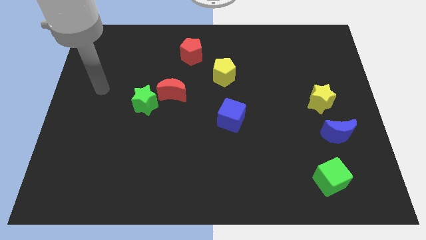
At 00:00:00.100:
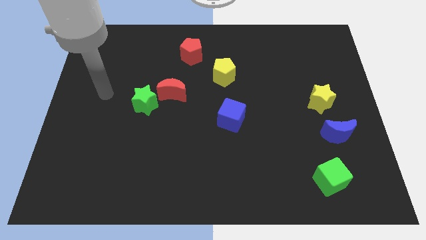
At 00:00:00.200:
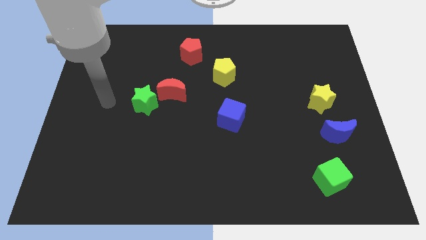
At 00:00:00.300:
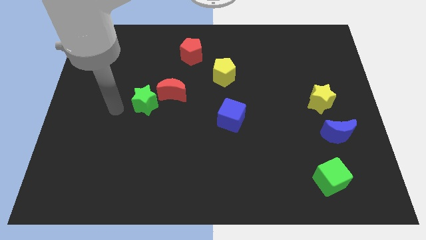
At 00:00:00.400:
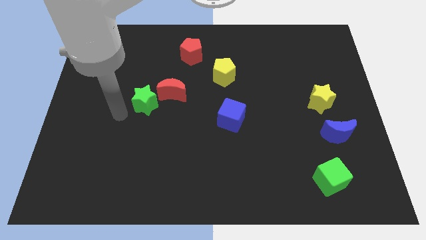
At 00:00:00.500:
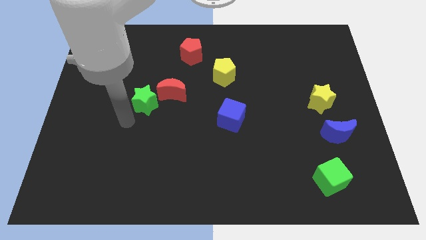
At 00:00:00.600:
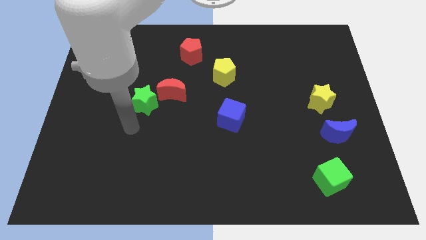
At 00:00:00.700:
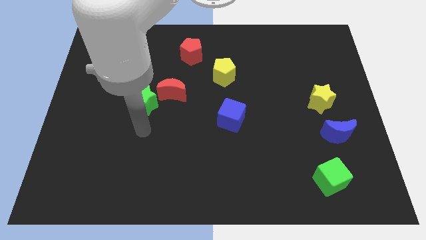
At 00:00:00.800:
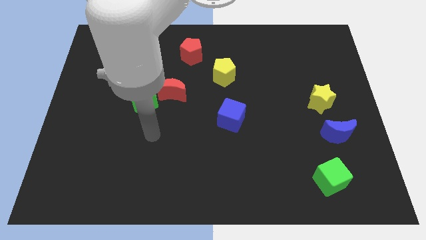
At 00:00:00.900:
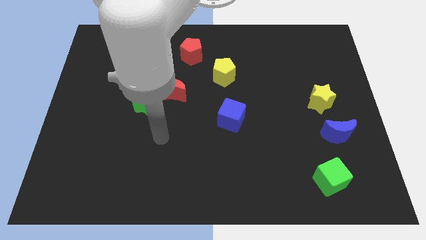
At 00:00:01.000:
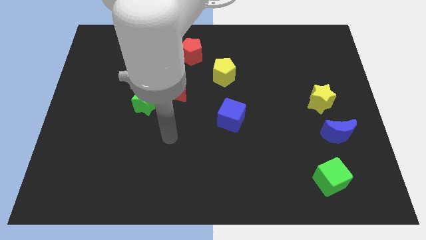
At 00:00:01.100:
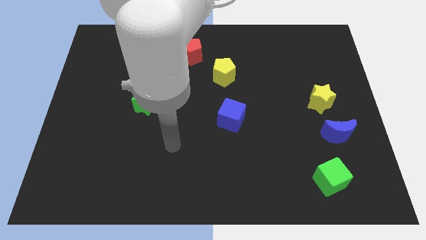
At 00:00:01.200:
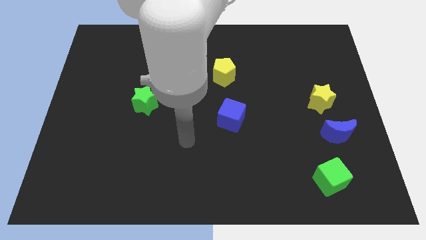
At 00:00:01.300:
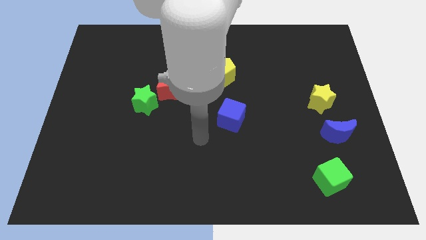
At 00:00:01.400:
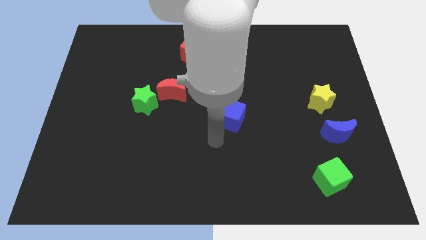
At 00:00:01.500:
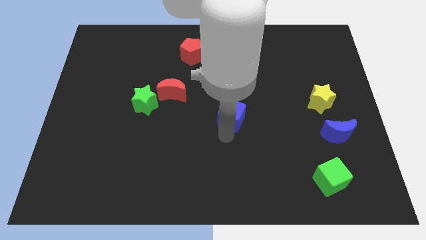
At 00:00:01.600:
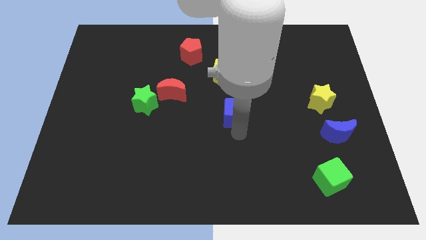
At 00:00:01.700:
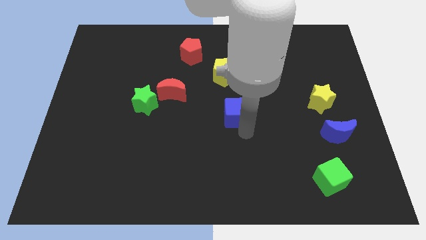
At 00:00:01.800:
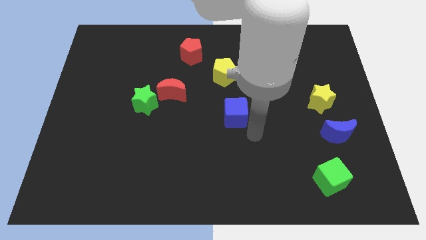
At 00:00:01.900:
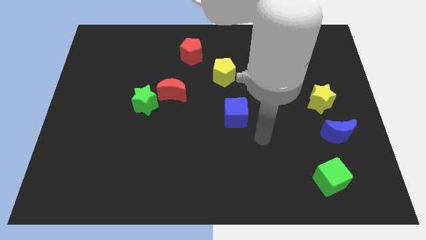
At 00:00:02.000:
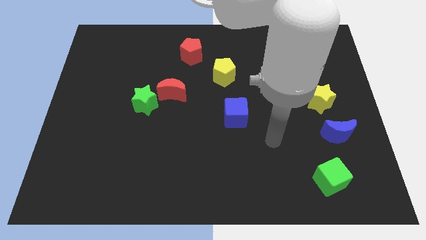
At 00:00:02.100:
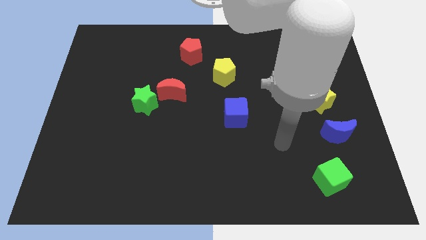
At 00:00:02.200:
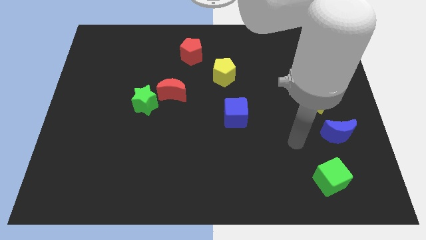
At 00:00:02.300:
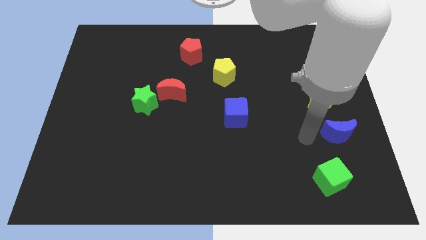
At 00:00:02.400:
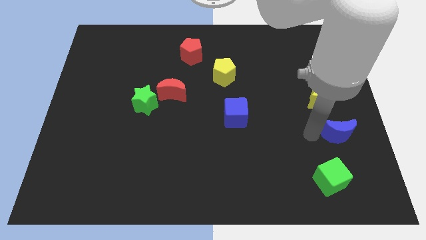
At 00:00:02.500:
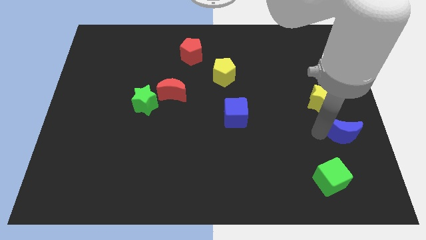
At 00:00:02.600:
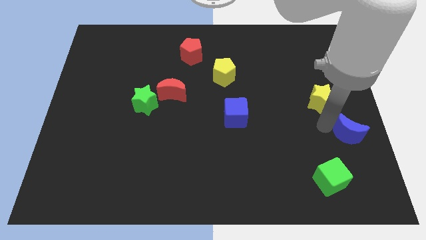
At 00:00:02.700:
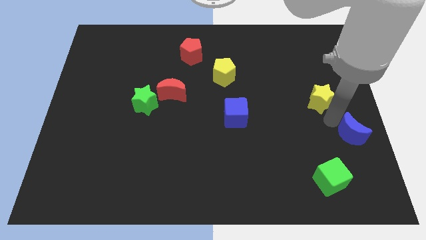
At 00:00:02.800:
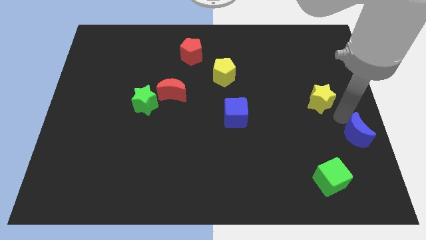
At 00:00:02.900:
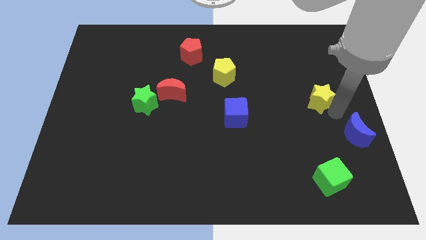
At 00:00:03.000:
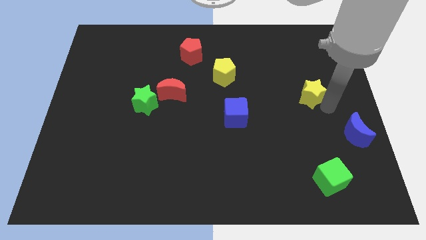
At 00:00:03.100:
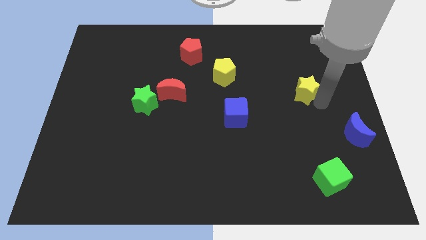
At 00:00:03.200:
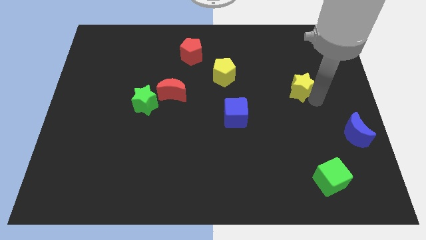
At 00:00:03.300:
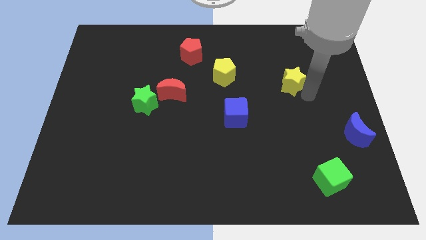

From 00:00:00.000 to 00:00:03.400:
slide the yellow star up and then to the left slightly

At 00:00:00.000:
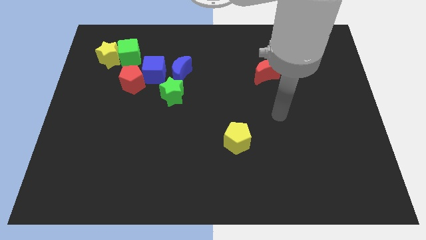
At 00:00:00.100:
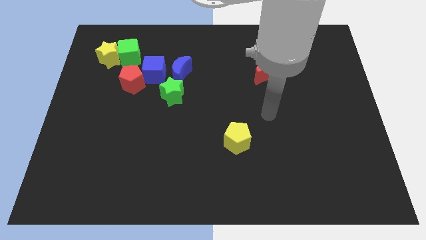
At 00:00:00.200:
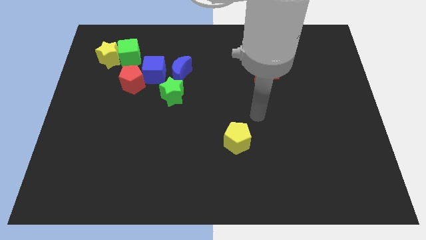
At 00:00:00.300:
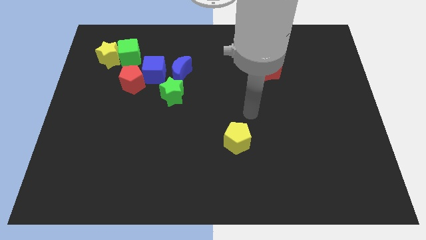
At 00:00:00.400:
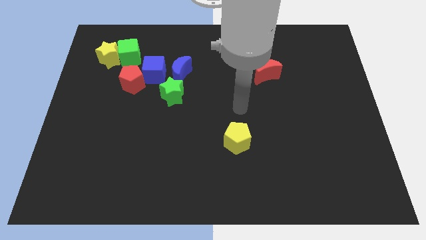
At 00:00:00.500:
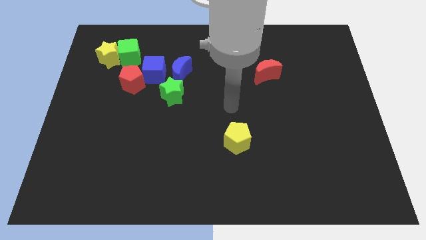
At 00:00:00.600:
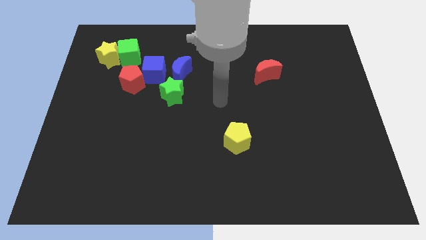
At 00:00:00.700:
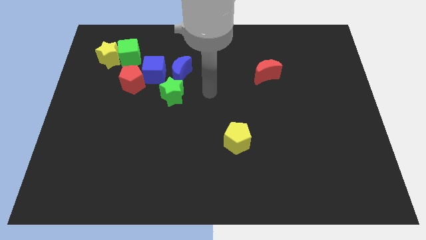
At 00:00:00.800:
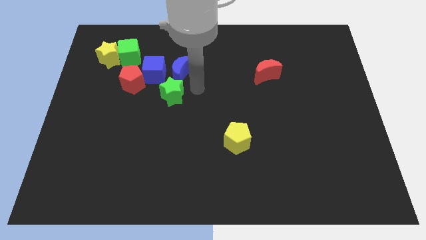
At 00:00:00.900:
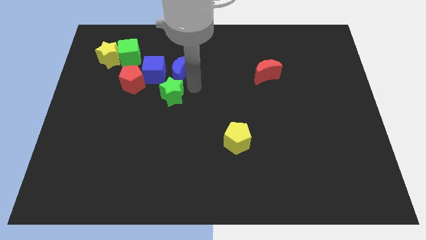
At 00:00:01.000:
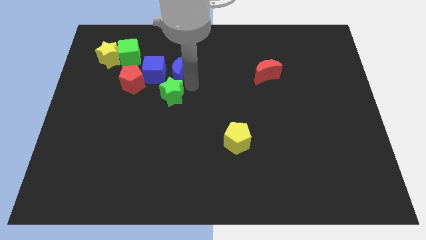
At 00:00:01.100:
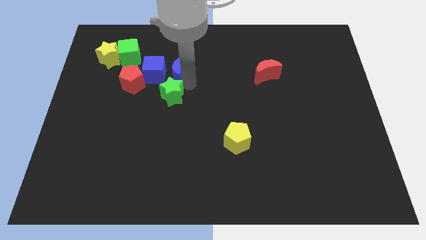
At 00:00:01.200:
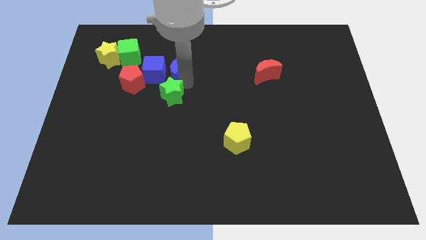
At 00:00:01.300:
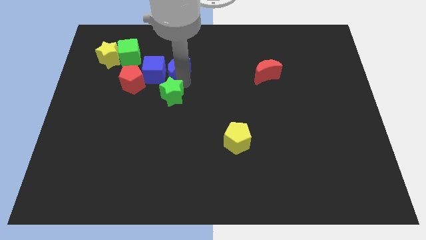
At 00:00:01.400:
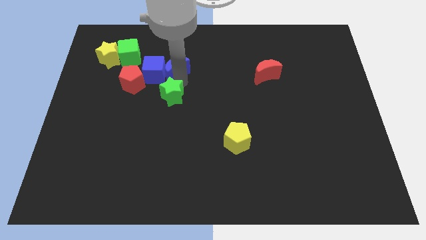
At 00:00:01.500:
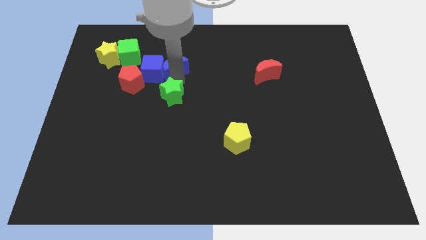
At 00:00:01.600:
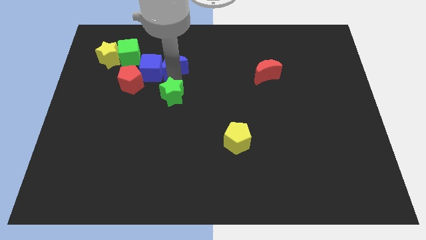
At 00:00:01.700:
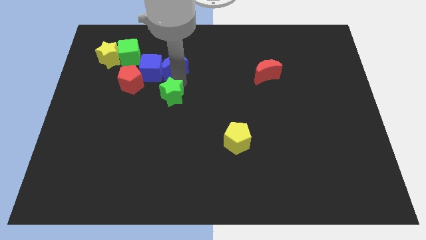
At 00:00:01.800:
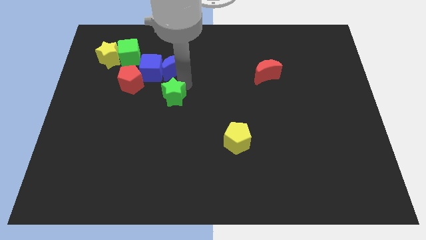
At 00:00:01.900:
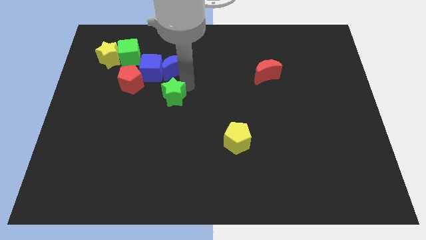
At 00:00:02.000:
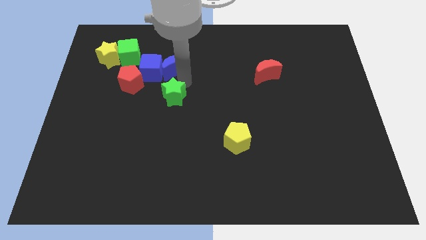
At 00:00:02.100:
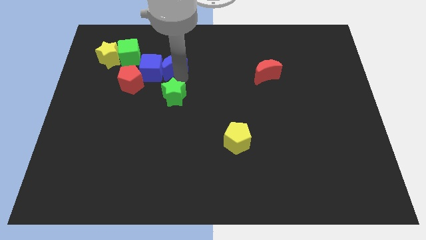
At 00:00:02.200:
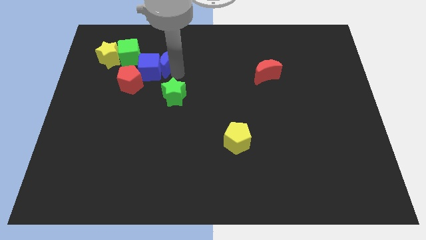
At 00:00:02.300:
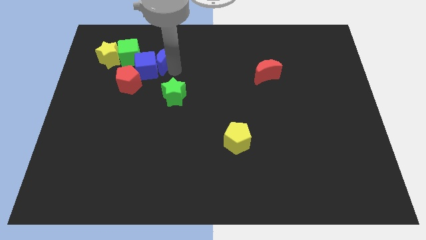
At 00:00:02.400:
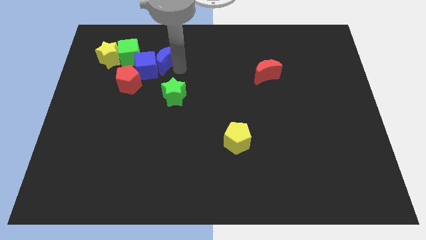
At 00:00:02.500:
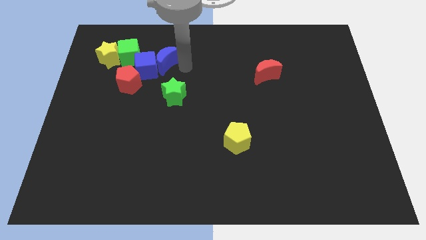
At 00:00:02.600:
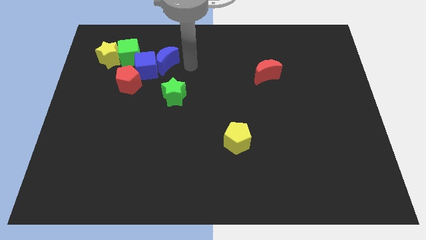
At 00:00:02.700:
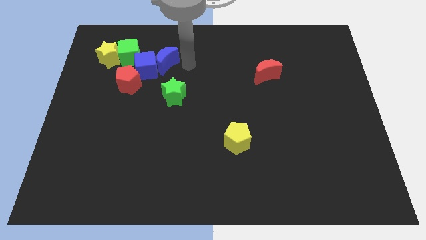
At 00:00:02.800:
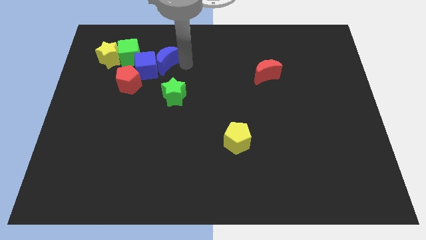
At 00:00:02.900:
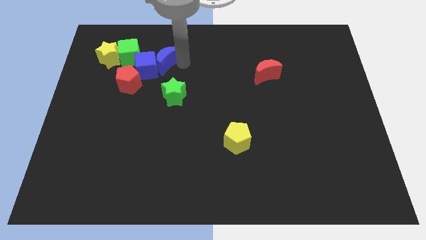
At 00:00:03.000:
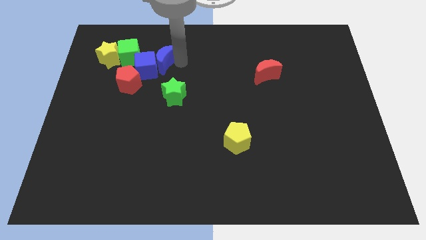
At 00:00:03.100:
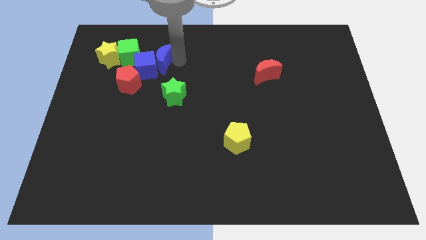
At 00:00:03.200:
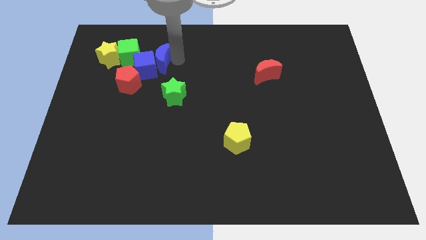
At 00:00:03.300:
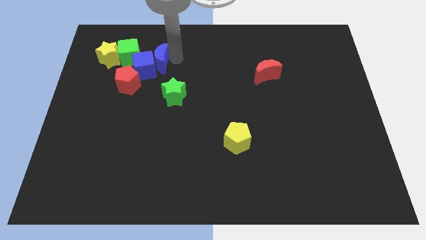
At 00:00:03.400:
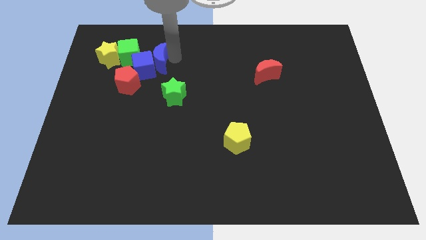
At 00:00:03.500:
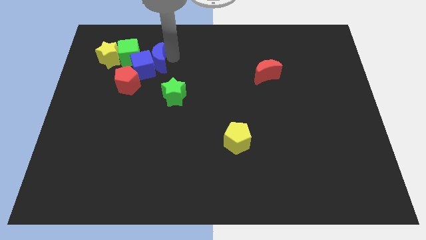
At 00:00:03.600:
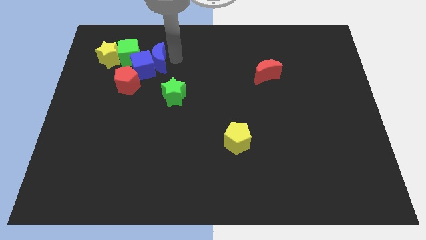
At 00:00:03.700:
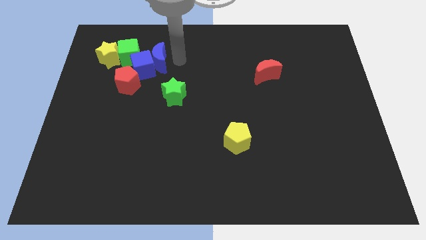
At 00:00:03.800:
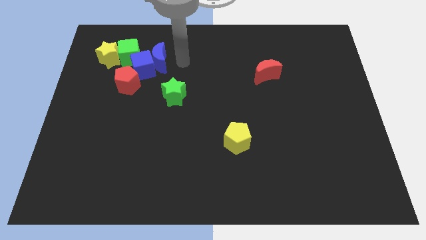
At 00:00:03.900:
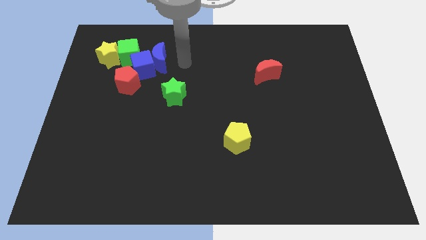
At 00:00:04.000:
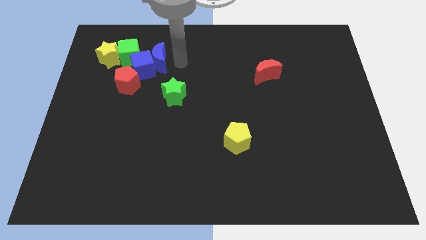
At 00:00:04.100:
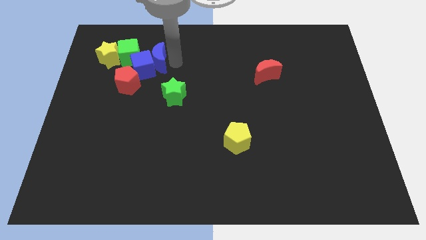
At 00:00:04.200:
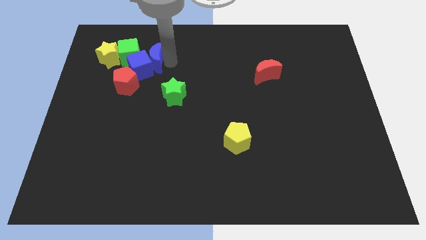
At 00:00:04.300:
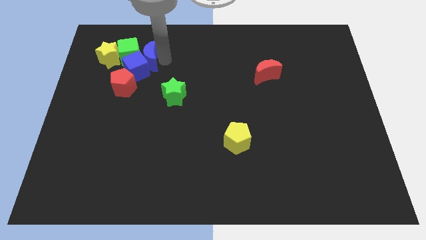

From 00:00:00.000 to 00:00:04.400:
slightly push the blue moon to the left

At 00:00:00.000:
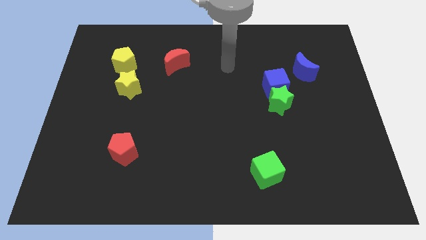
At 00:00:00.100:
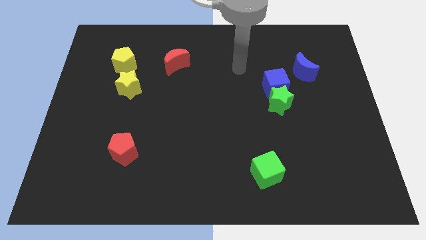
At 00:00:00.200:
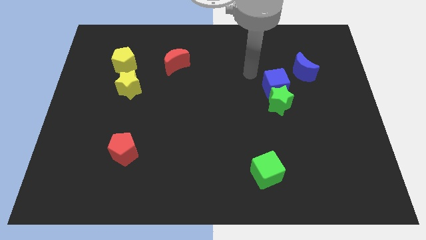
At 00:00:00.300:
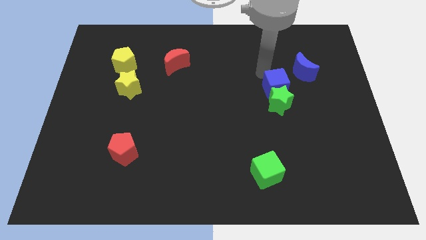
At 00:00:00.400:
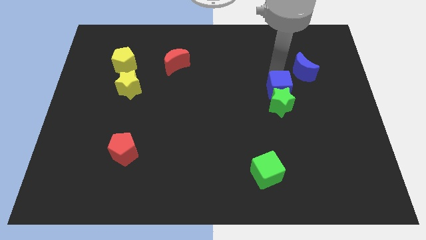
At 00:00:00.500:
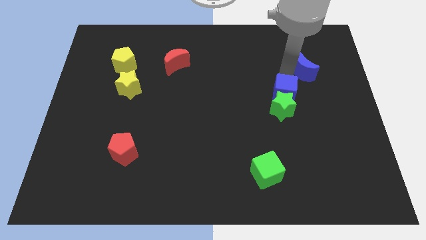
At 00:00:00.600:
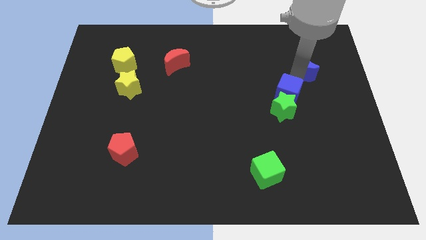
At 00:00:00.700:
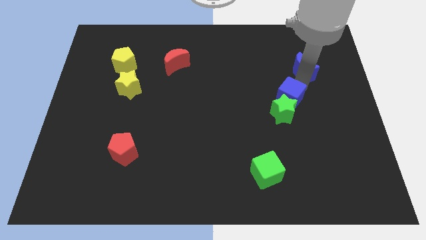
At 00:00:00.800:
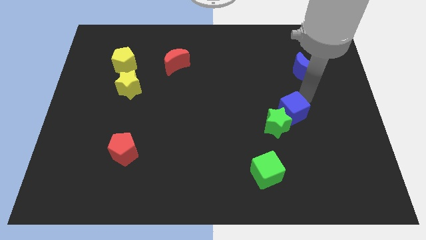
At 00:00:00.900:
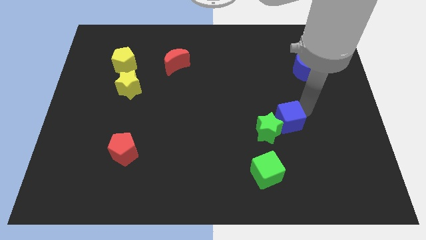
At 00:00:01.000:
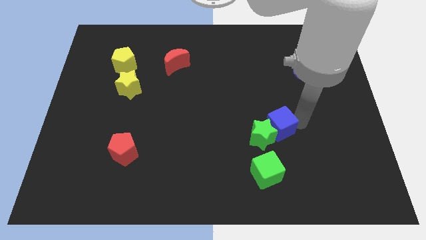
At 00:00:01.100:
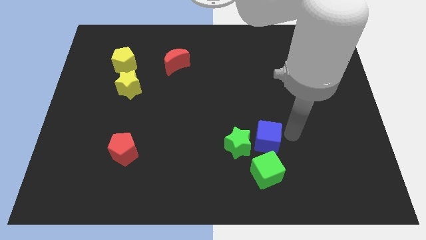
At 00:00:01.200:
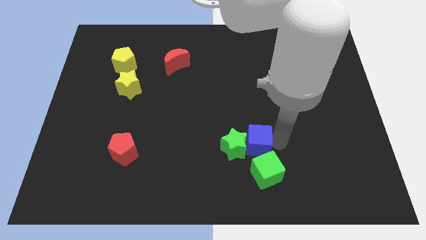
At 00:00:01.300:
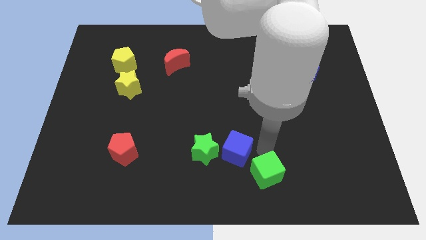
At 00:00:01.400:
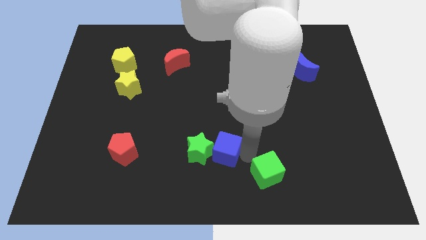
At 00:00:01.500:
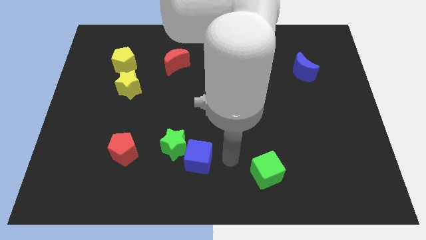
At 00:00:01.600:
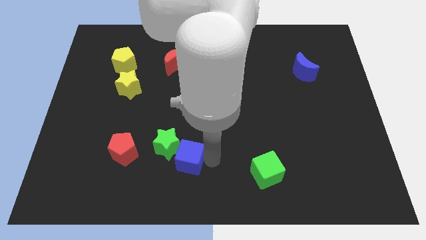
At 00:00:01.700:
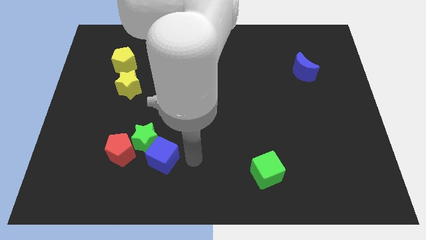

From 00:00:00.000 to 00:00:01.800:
push the green star left
